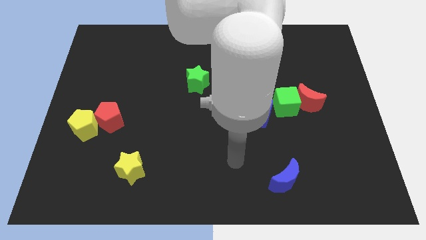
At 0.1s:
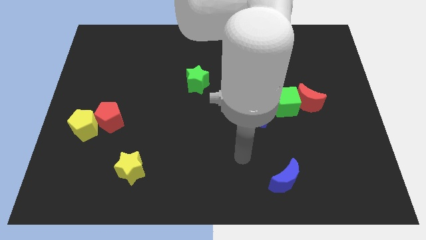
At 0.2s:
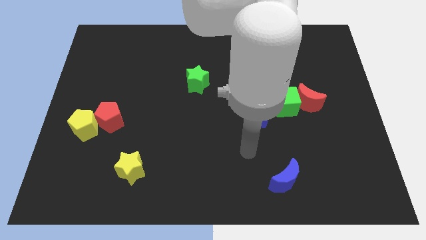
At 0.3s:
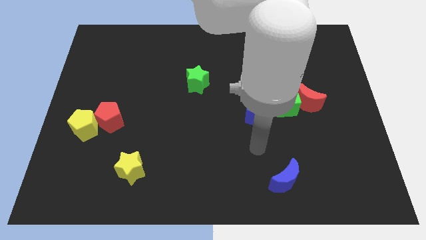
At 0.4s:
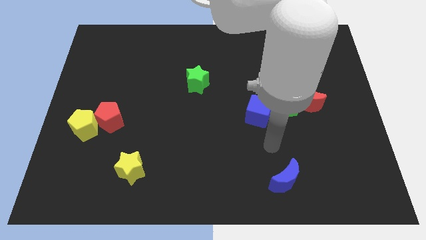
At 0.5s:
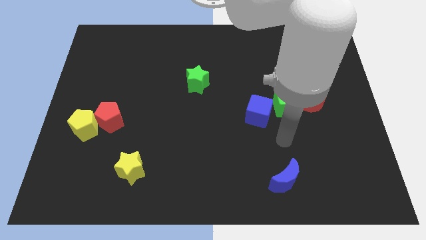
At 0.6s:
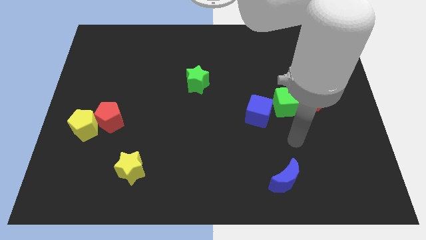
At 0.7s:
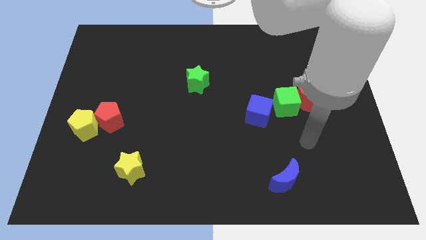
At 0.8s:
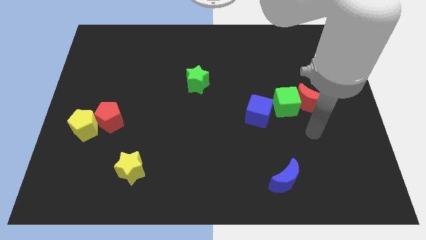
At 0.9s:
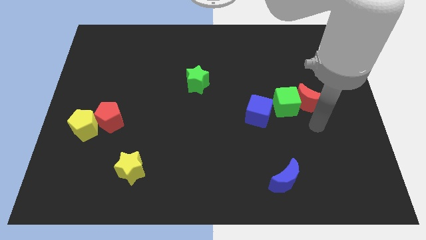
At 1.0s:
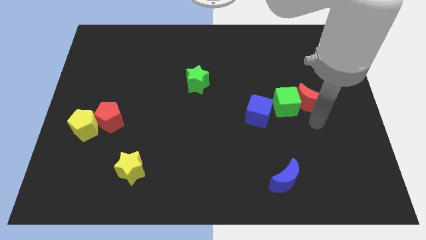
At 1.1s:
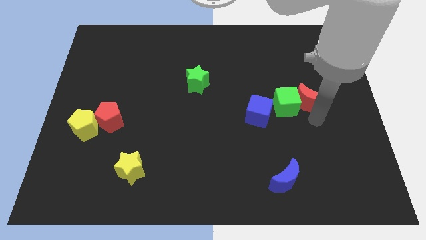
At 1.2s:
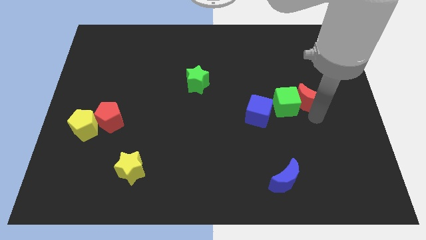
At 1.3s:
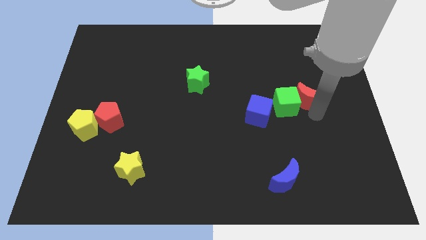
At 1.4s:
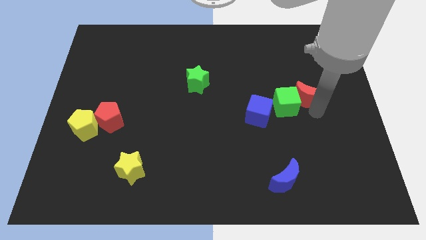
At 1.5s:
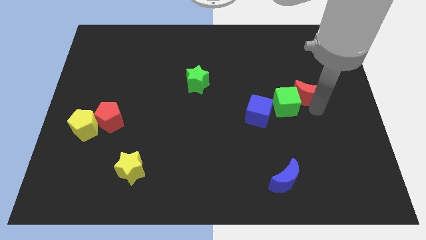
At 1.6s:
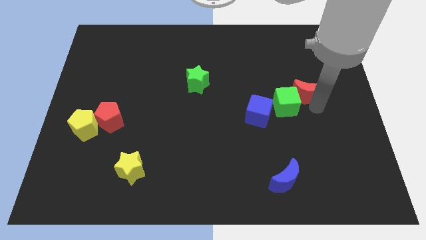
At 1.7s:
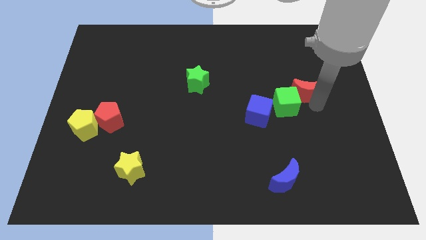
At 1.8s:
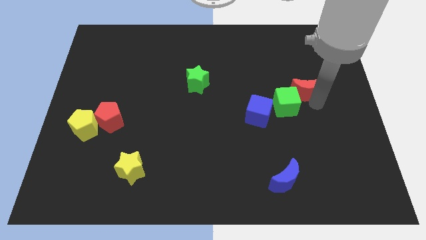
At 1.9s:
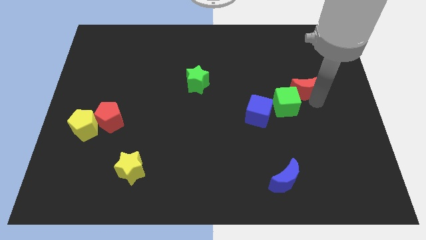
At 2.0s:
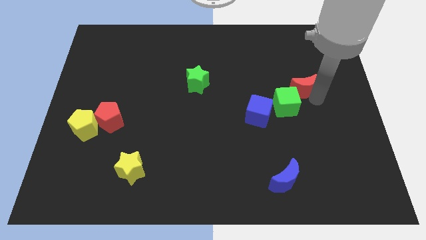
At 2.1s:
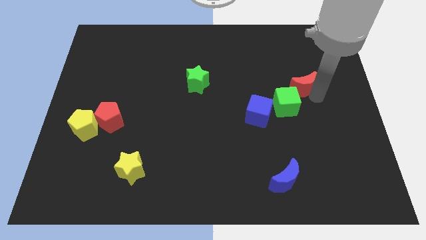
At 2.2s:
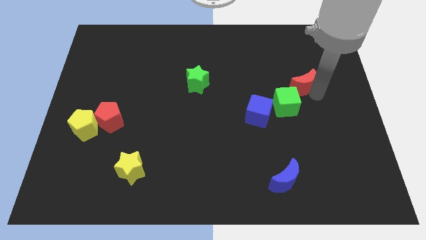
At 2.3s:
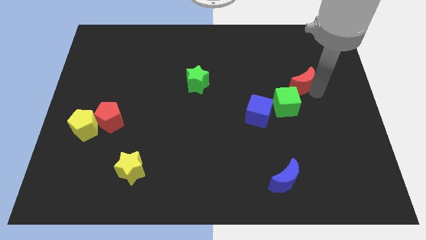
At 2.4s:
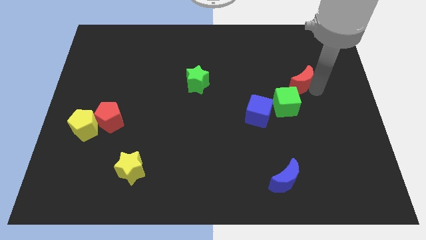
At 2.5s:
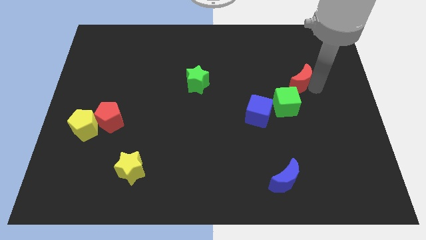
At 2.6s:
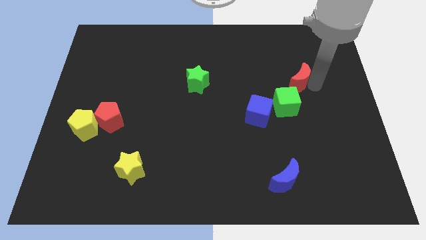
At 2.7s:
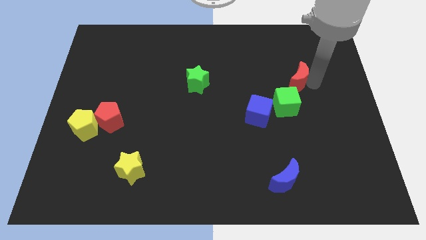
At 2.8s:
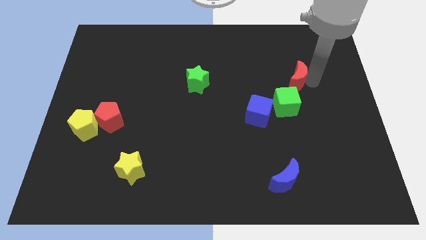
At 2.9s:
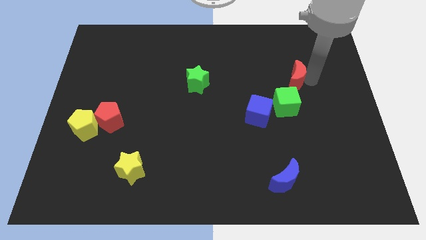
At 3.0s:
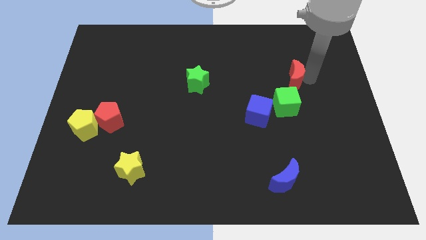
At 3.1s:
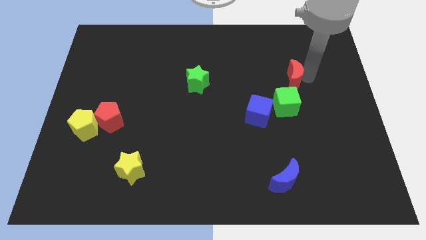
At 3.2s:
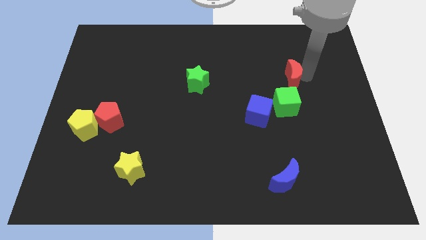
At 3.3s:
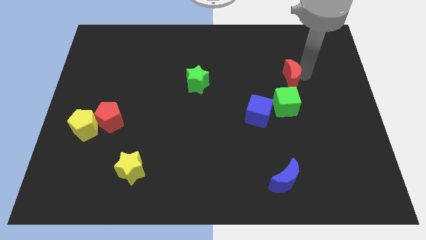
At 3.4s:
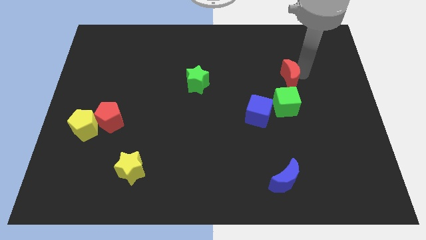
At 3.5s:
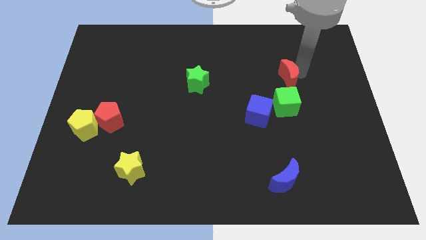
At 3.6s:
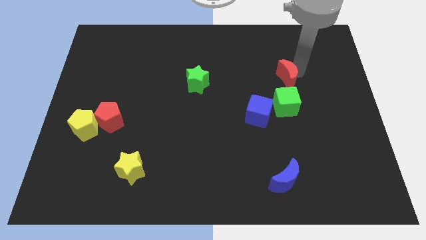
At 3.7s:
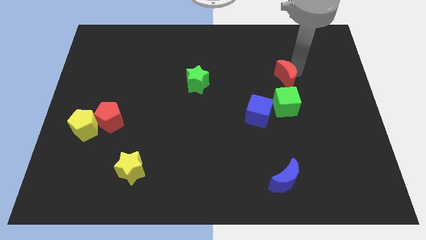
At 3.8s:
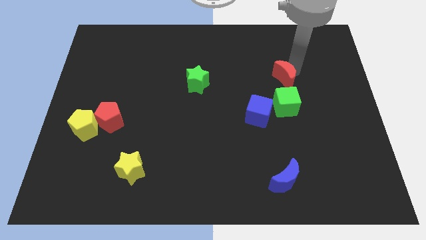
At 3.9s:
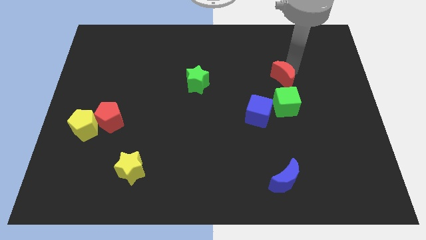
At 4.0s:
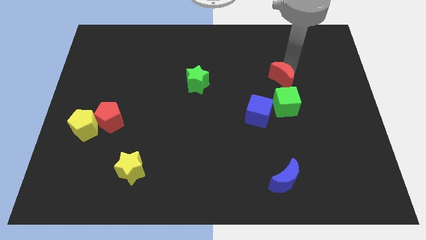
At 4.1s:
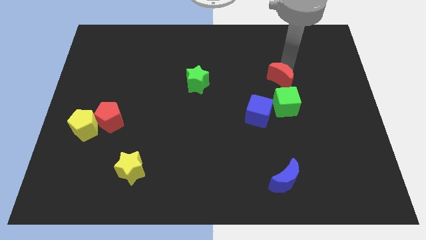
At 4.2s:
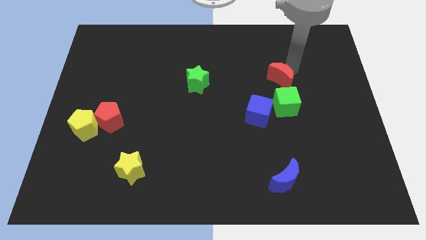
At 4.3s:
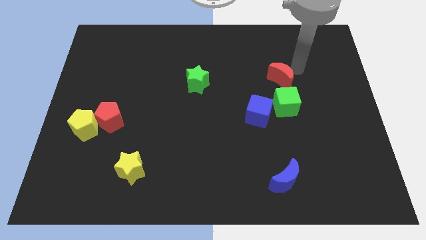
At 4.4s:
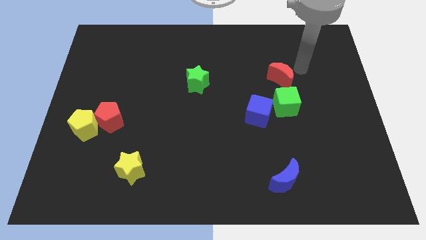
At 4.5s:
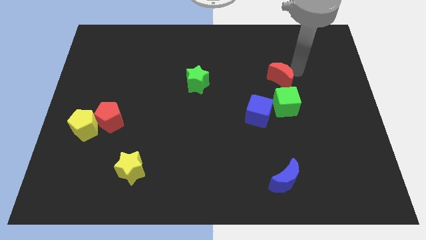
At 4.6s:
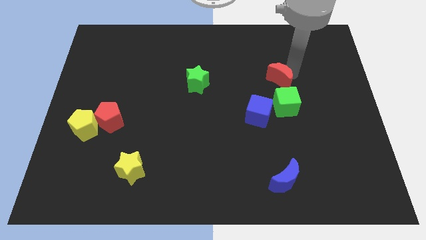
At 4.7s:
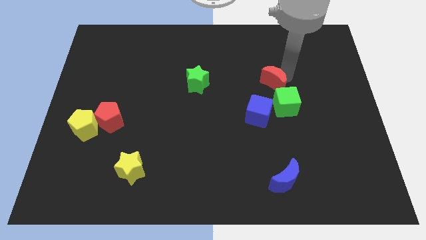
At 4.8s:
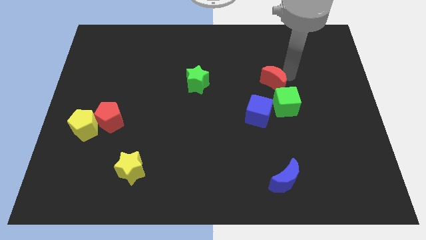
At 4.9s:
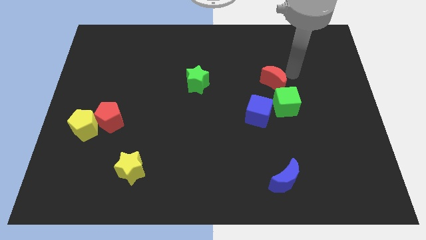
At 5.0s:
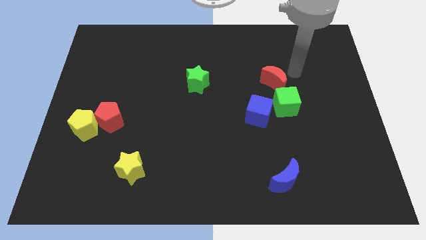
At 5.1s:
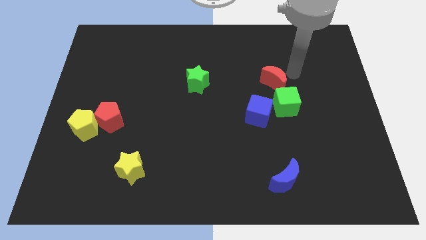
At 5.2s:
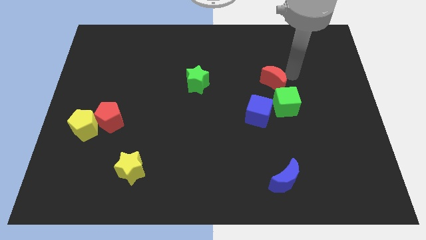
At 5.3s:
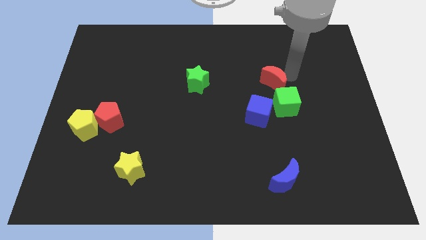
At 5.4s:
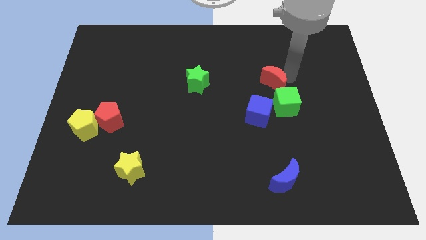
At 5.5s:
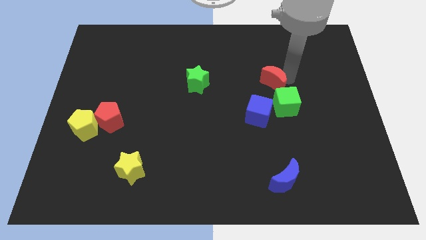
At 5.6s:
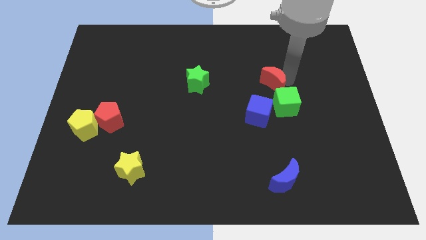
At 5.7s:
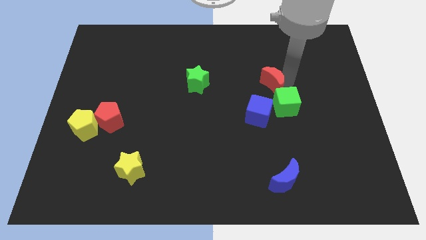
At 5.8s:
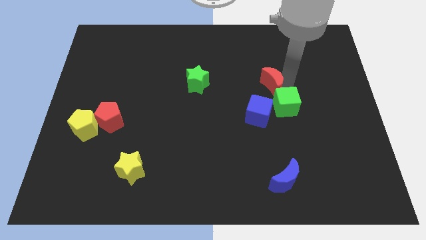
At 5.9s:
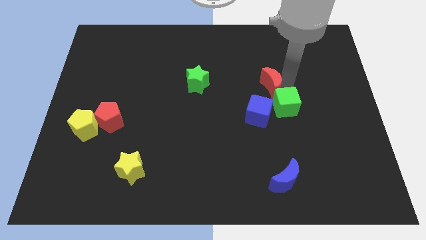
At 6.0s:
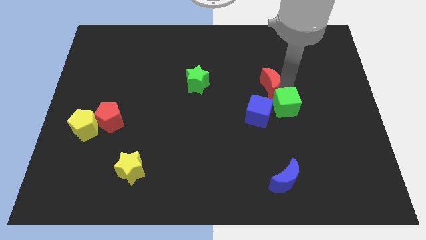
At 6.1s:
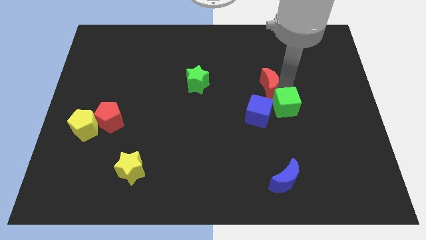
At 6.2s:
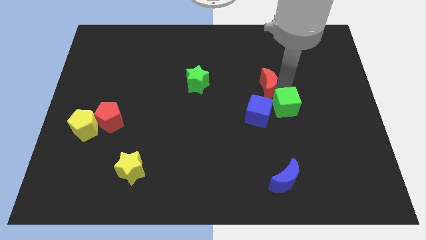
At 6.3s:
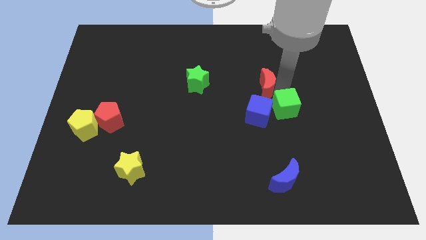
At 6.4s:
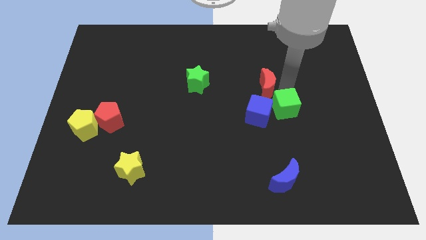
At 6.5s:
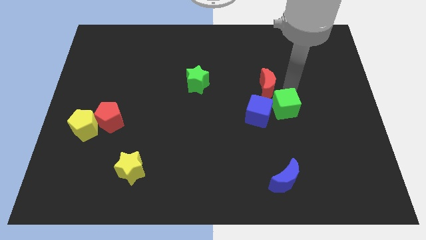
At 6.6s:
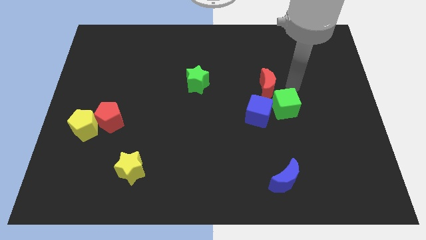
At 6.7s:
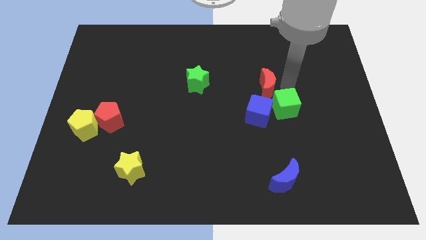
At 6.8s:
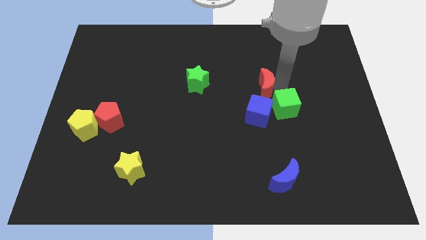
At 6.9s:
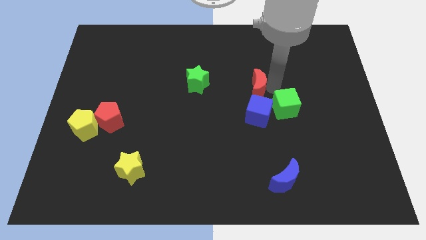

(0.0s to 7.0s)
push the red moon to the middle
